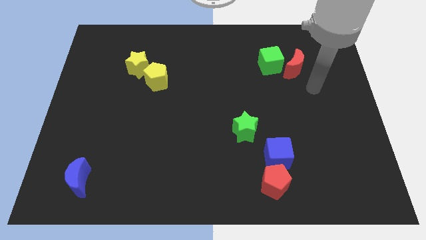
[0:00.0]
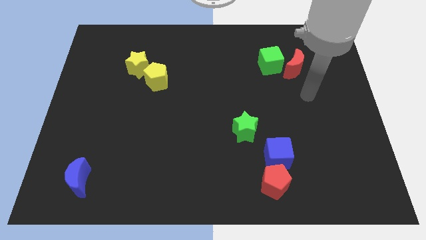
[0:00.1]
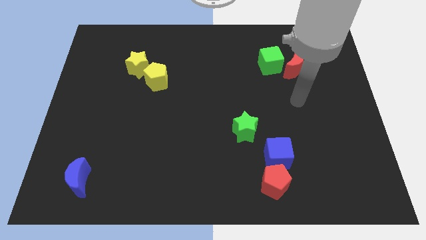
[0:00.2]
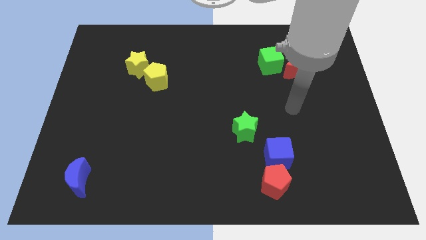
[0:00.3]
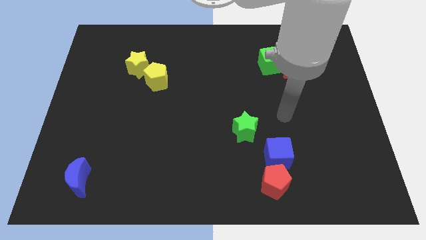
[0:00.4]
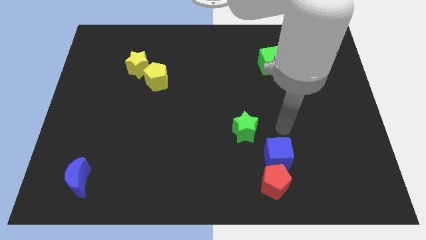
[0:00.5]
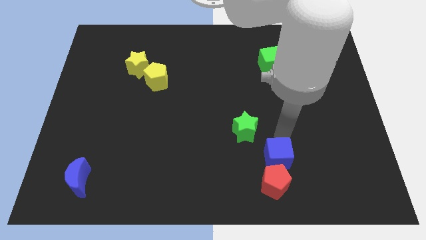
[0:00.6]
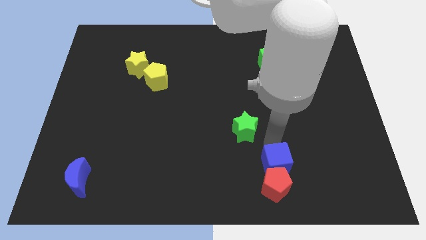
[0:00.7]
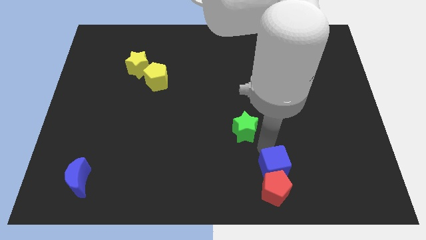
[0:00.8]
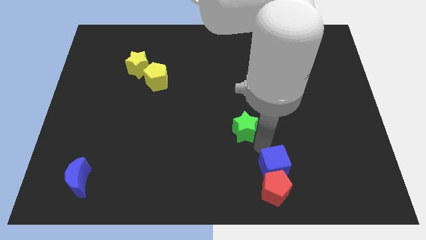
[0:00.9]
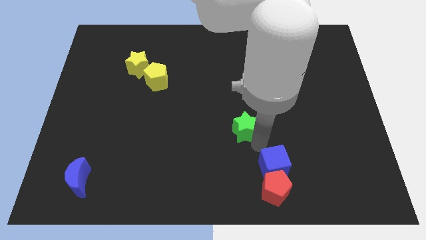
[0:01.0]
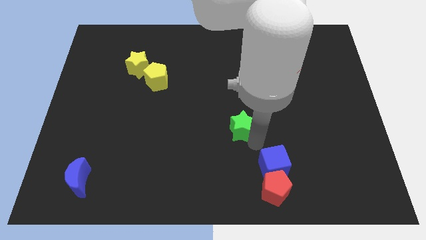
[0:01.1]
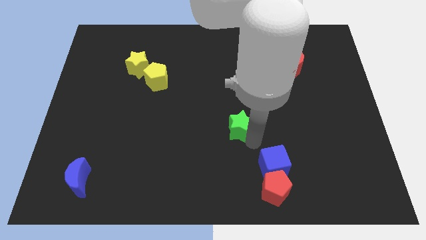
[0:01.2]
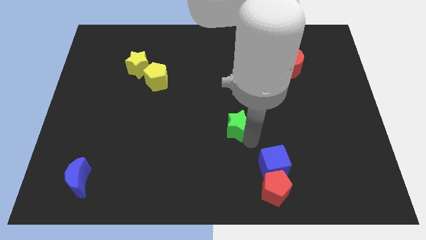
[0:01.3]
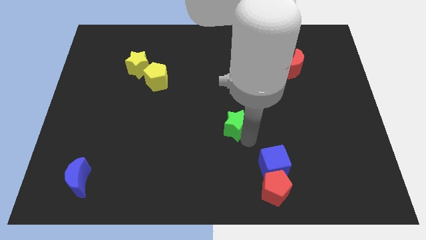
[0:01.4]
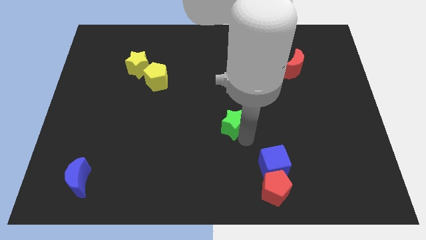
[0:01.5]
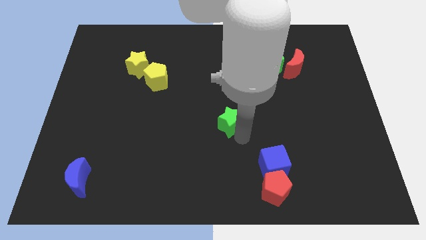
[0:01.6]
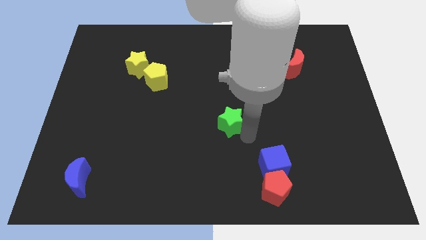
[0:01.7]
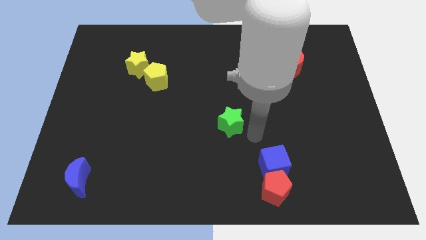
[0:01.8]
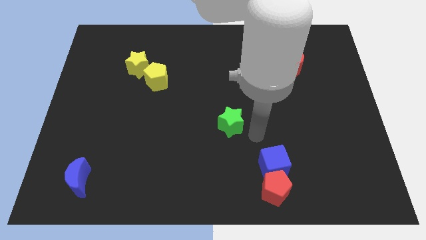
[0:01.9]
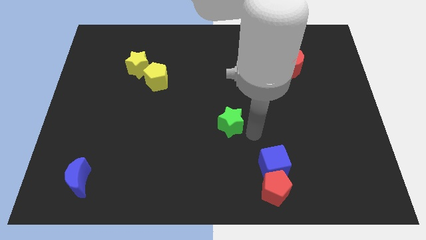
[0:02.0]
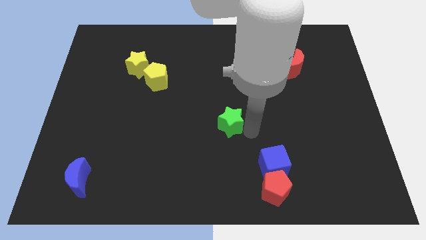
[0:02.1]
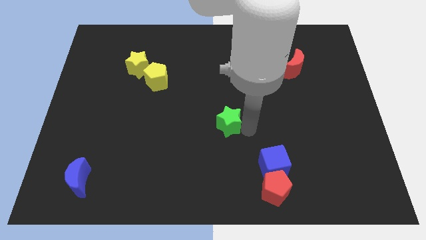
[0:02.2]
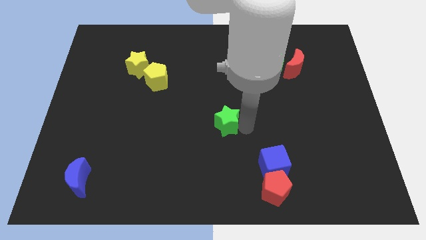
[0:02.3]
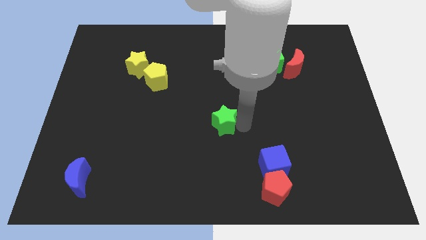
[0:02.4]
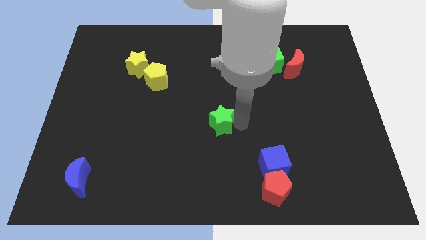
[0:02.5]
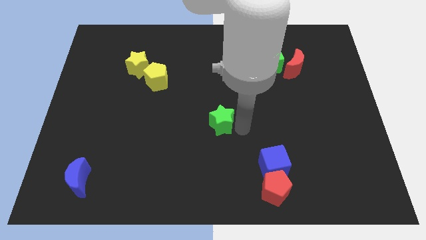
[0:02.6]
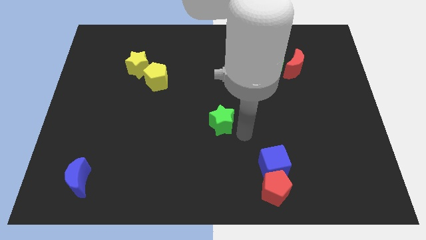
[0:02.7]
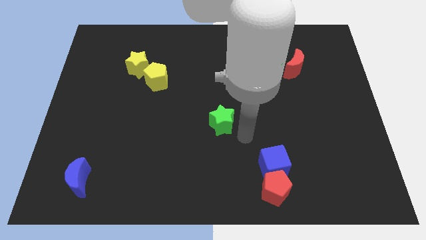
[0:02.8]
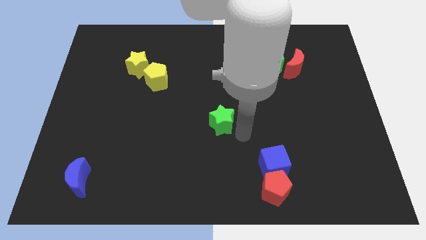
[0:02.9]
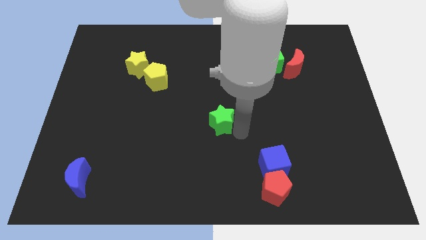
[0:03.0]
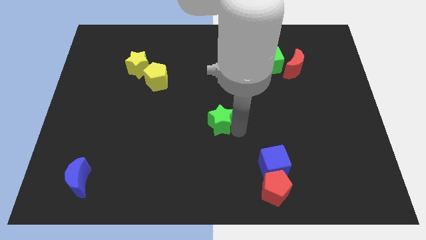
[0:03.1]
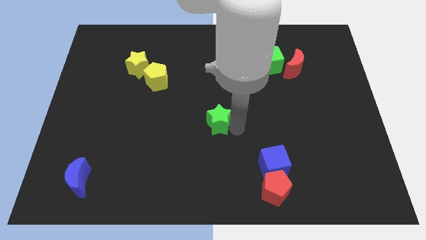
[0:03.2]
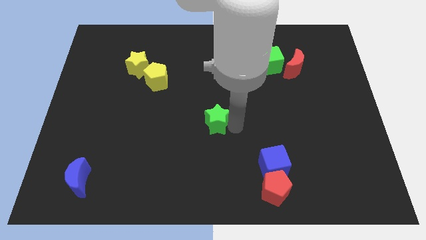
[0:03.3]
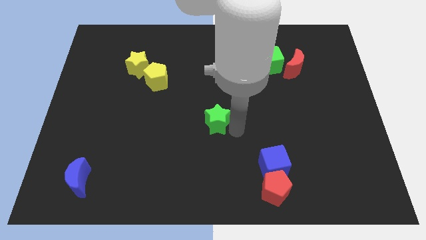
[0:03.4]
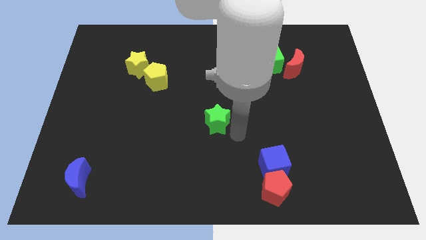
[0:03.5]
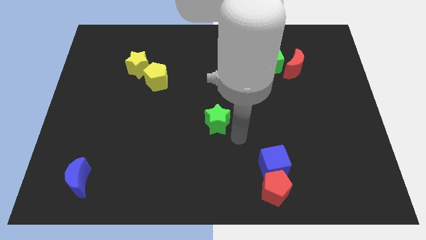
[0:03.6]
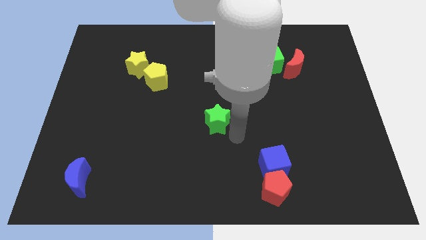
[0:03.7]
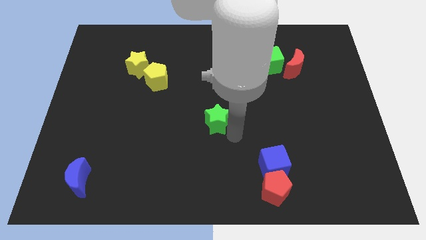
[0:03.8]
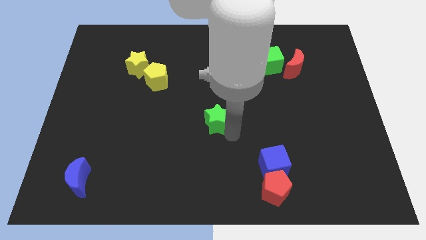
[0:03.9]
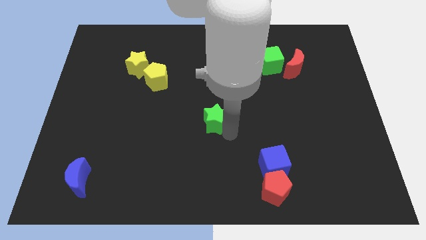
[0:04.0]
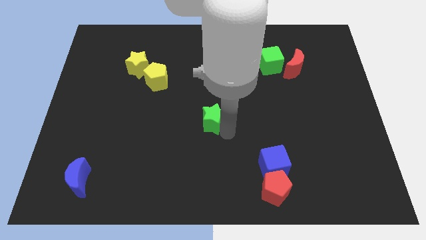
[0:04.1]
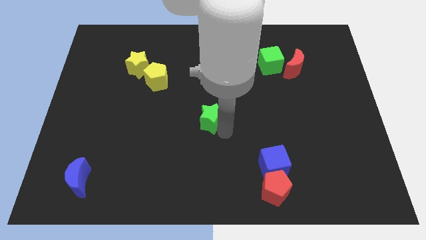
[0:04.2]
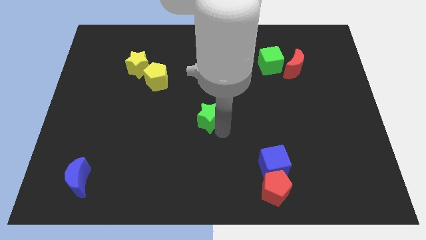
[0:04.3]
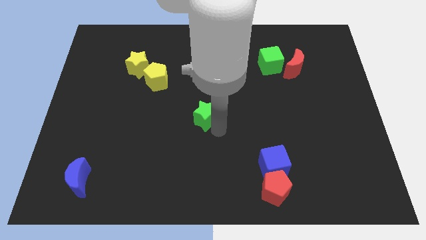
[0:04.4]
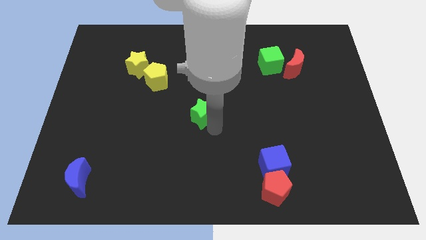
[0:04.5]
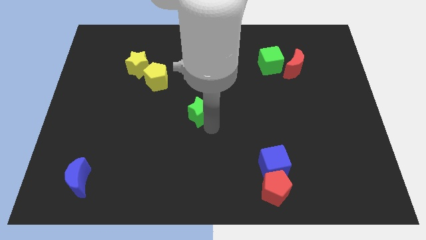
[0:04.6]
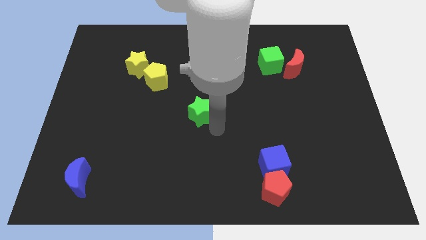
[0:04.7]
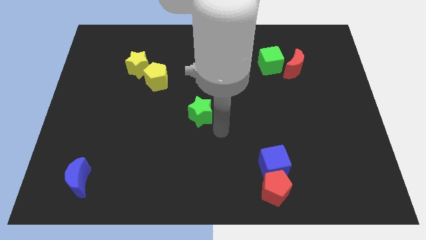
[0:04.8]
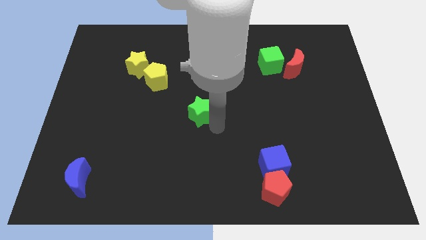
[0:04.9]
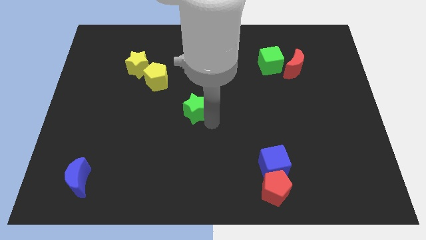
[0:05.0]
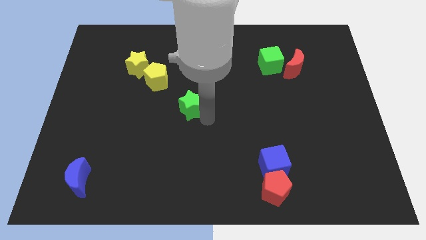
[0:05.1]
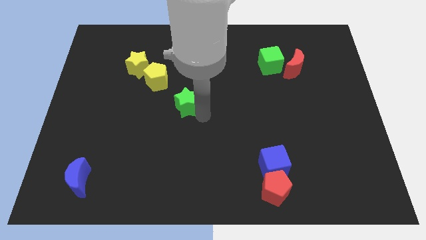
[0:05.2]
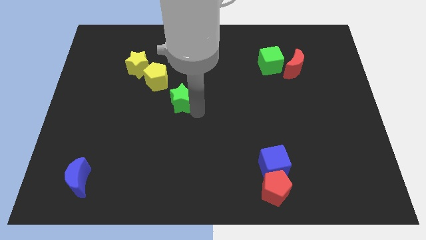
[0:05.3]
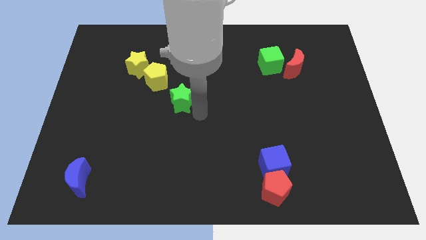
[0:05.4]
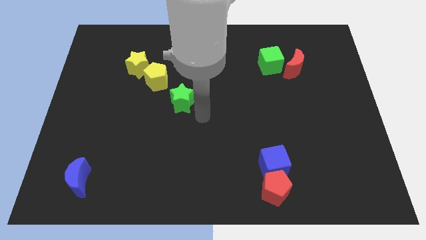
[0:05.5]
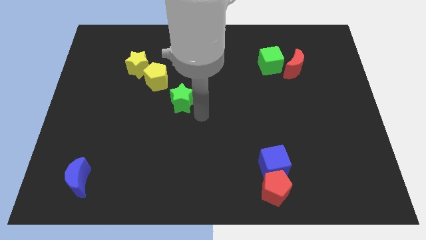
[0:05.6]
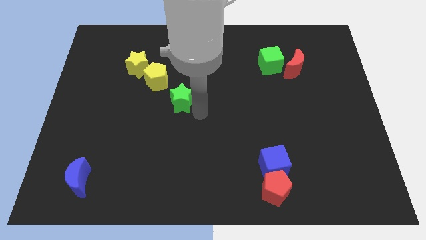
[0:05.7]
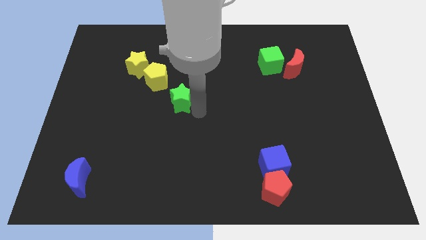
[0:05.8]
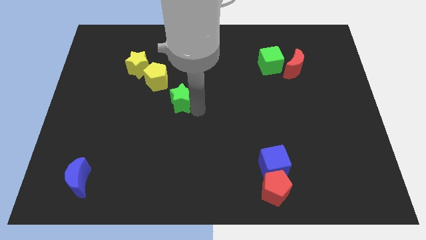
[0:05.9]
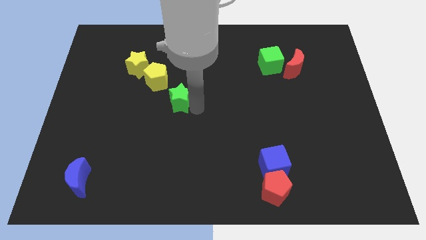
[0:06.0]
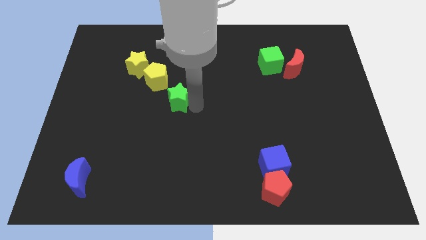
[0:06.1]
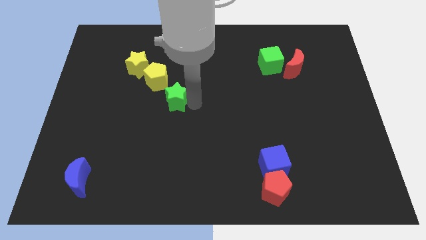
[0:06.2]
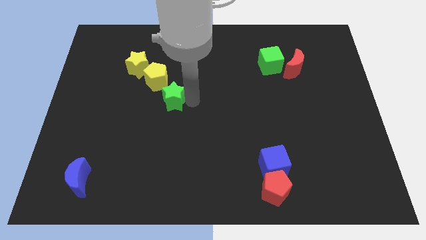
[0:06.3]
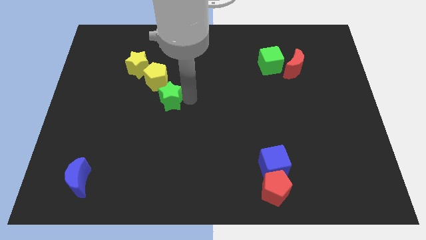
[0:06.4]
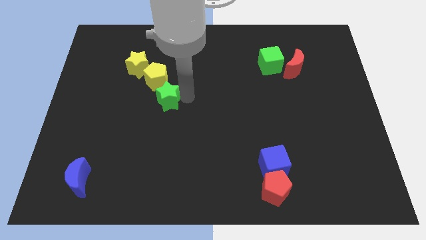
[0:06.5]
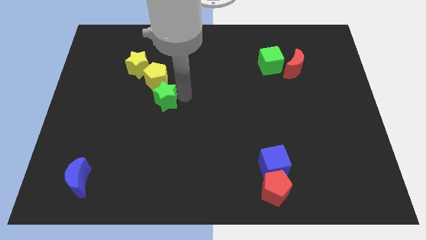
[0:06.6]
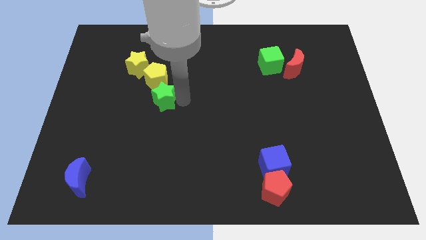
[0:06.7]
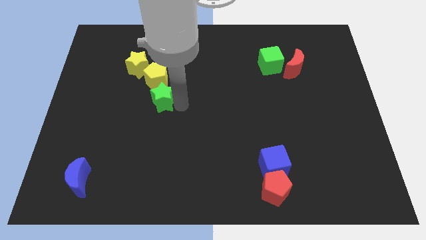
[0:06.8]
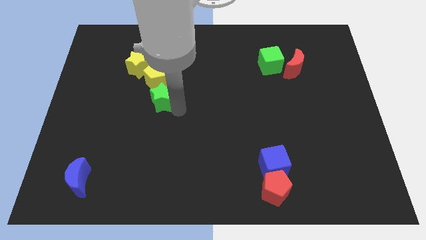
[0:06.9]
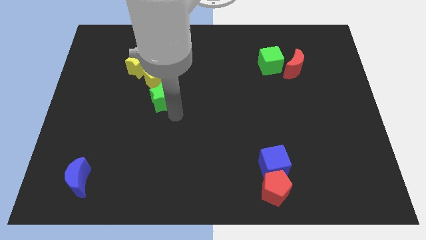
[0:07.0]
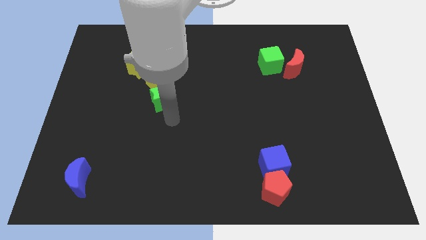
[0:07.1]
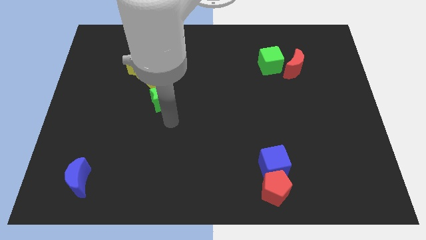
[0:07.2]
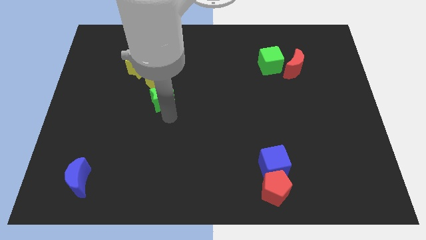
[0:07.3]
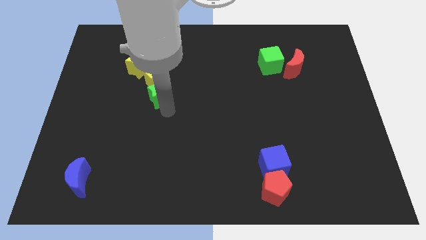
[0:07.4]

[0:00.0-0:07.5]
slide the green star to the yellow pentagon
